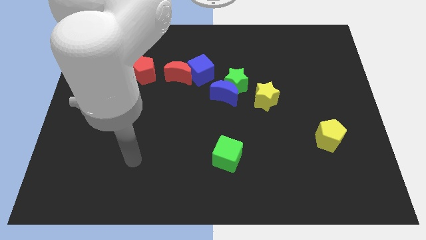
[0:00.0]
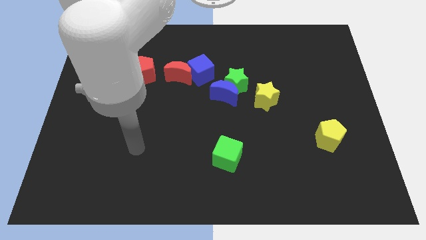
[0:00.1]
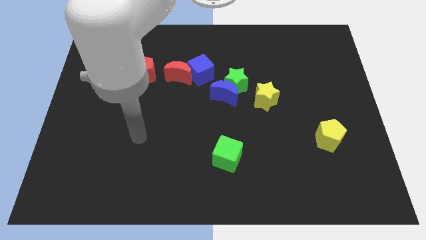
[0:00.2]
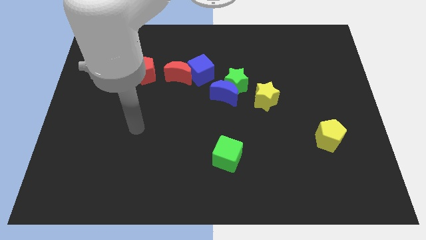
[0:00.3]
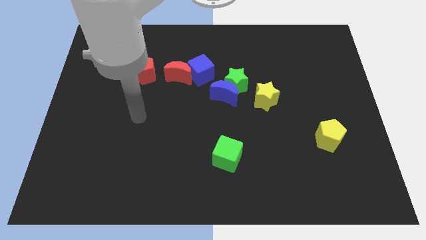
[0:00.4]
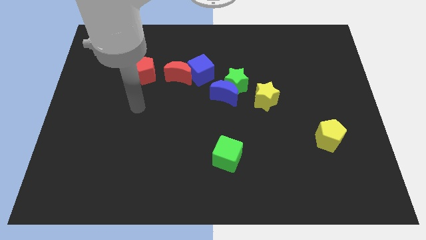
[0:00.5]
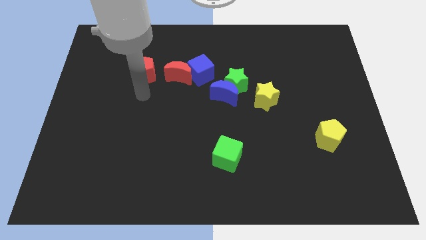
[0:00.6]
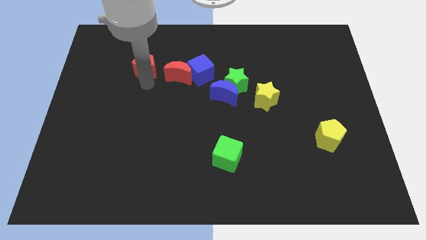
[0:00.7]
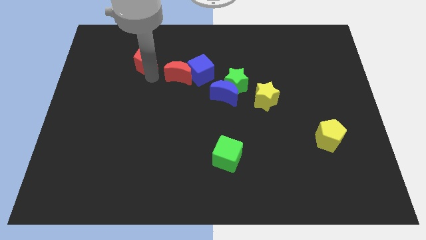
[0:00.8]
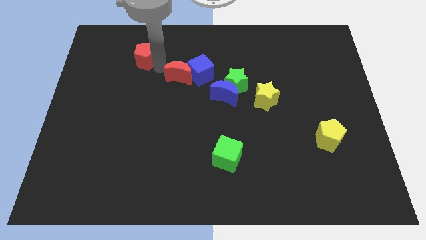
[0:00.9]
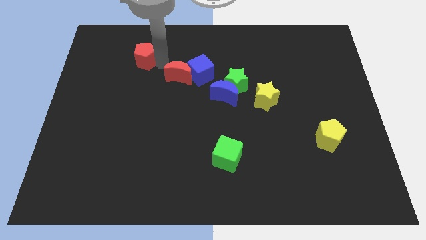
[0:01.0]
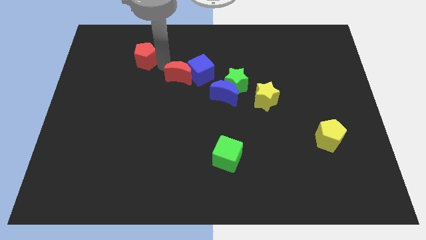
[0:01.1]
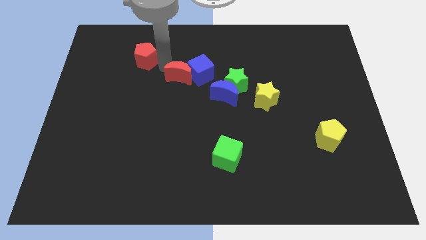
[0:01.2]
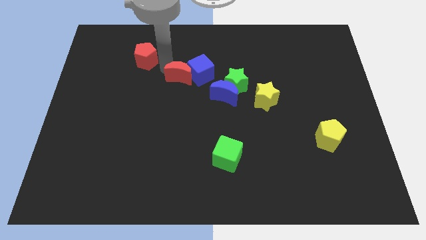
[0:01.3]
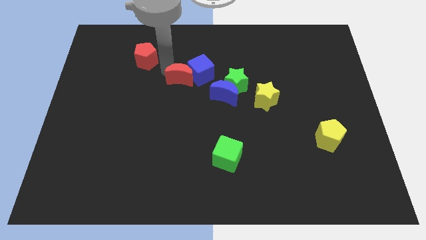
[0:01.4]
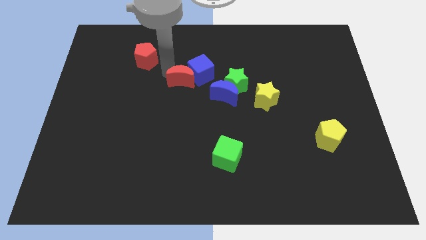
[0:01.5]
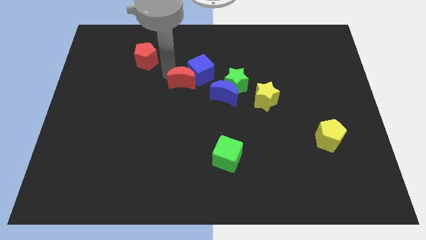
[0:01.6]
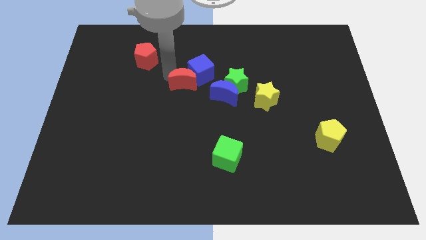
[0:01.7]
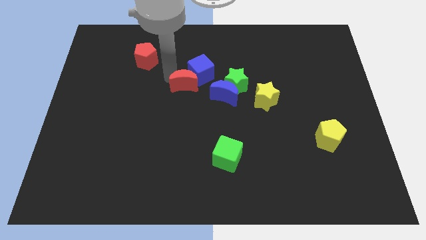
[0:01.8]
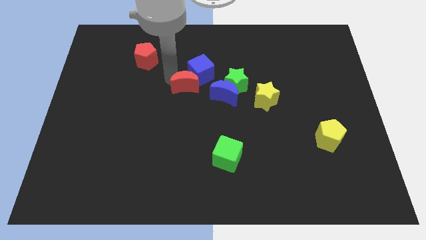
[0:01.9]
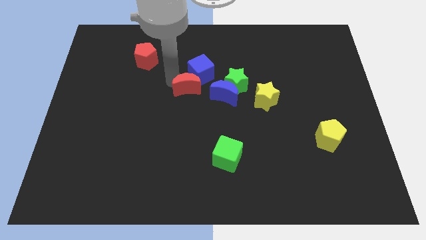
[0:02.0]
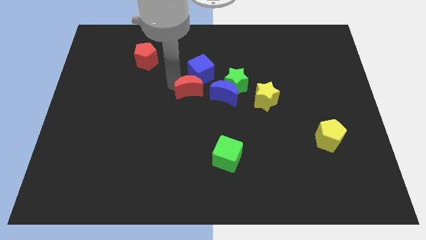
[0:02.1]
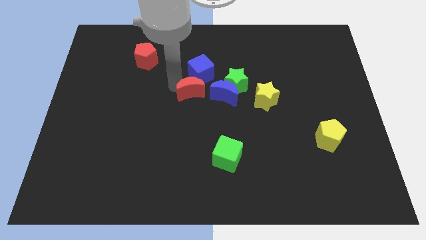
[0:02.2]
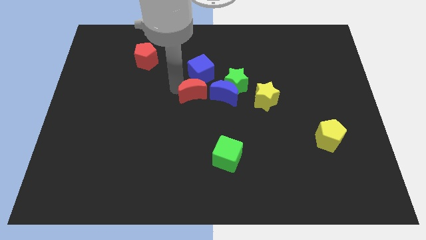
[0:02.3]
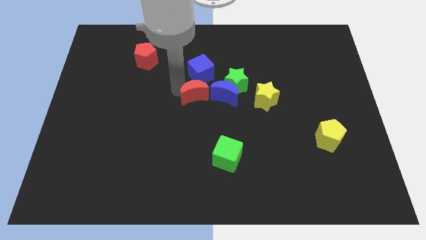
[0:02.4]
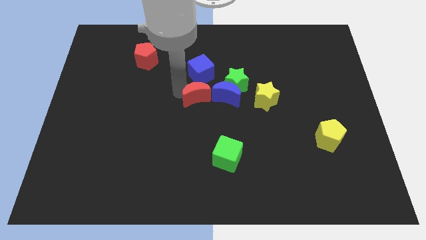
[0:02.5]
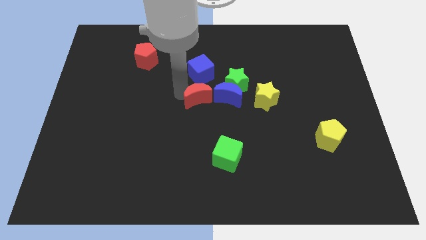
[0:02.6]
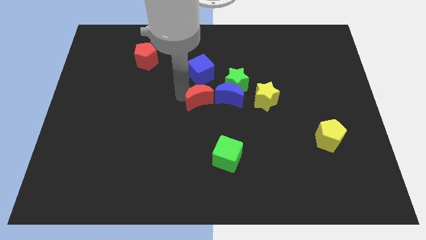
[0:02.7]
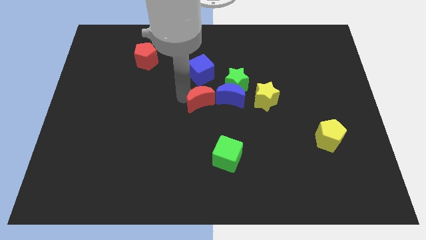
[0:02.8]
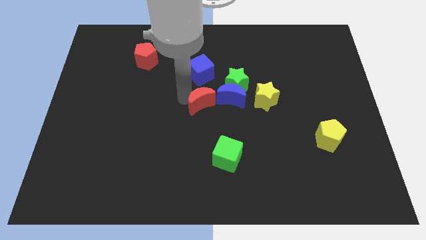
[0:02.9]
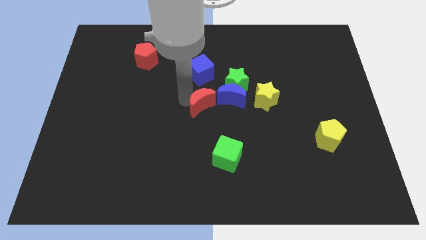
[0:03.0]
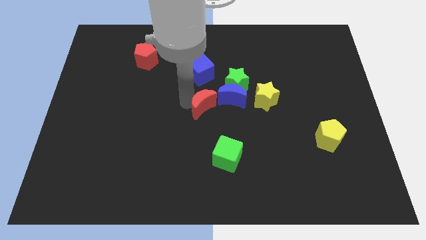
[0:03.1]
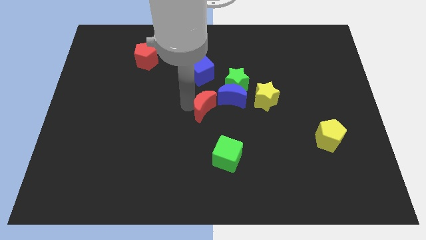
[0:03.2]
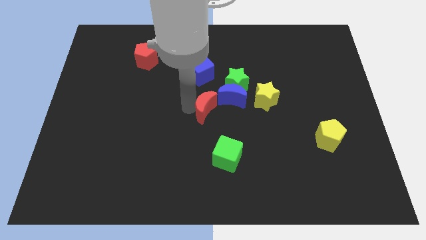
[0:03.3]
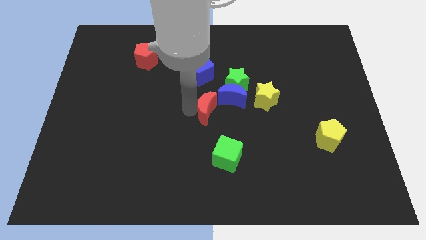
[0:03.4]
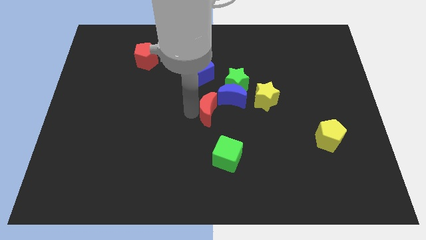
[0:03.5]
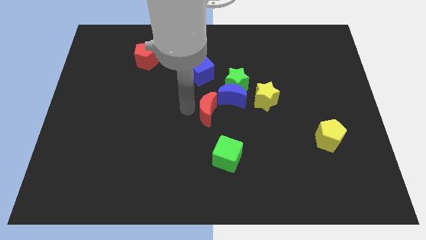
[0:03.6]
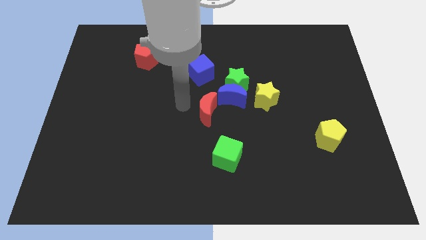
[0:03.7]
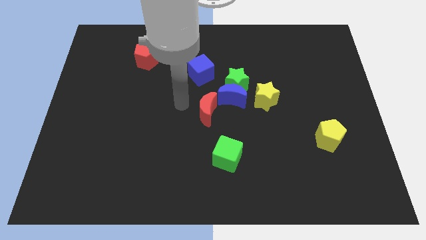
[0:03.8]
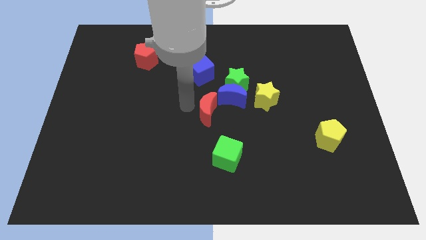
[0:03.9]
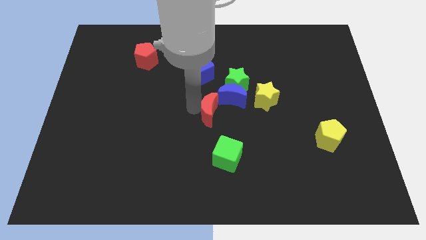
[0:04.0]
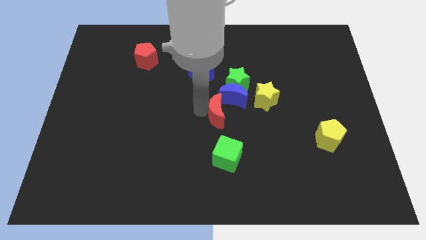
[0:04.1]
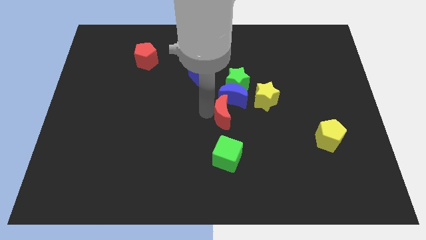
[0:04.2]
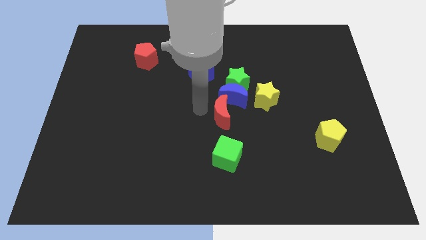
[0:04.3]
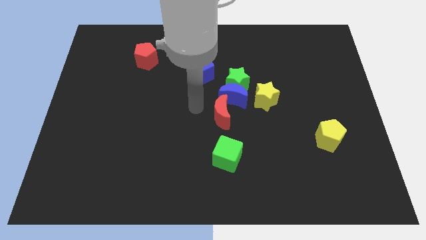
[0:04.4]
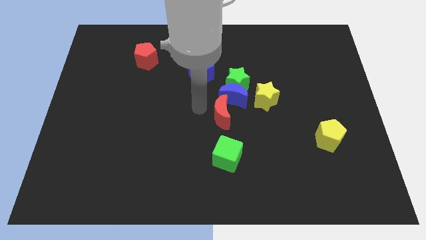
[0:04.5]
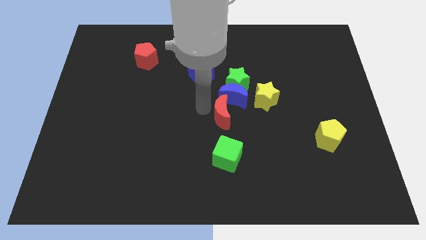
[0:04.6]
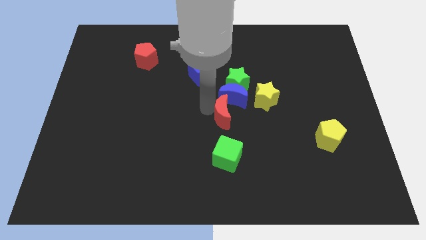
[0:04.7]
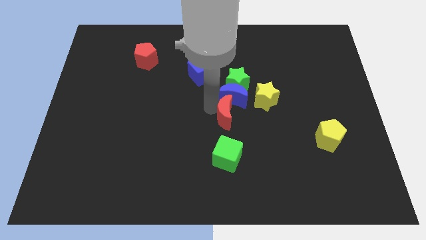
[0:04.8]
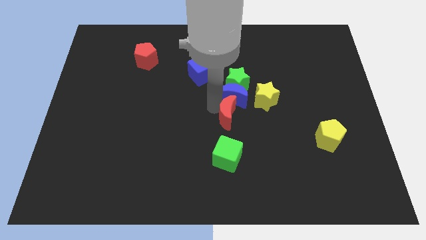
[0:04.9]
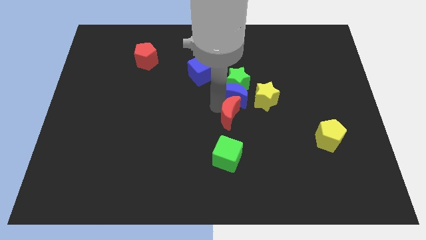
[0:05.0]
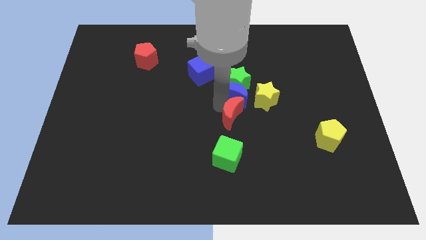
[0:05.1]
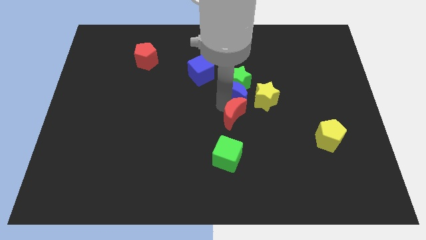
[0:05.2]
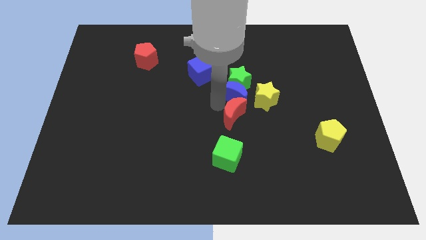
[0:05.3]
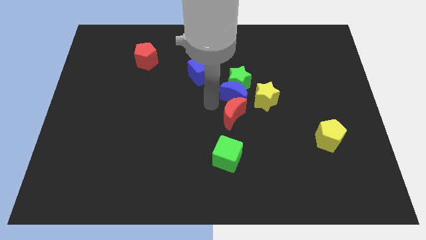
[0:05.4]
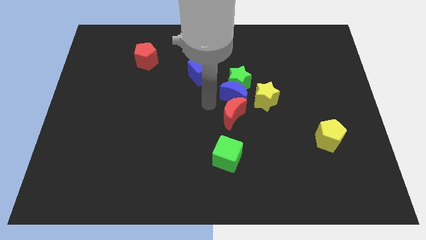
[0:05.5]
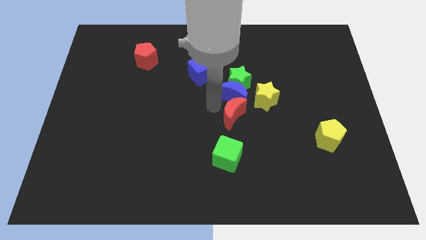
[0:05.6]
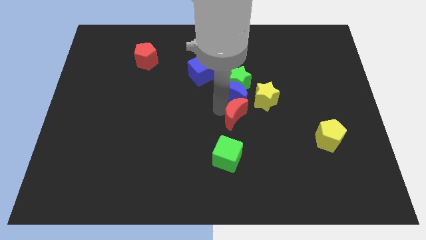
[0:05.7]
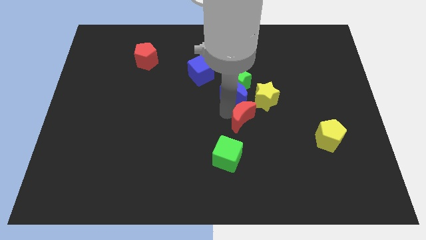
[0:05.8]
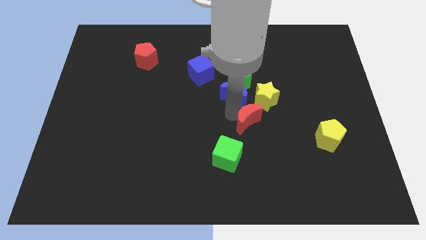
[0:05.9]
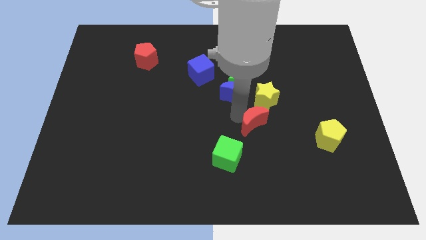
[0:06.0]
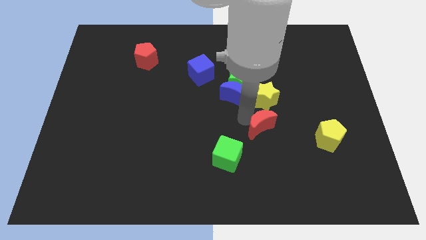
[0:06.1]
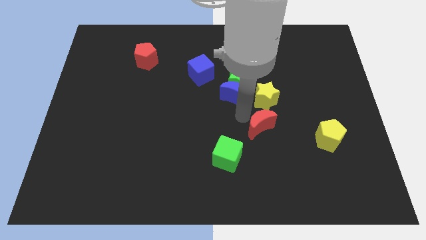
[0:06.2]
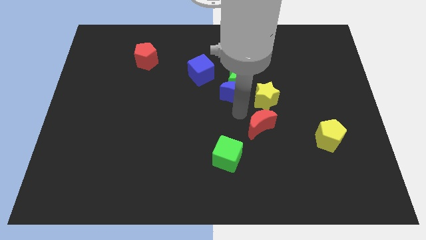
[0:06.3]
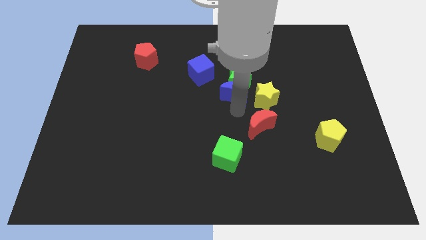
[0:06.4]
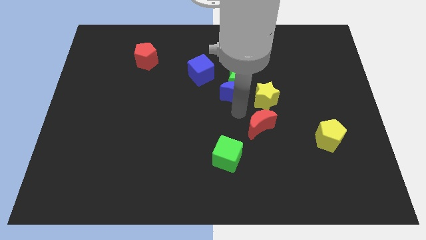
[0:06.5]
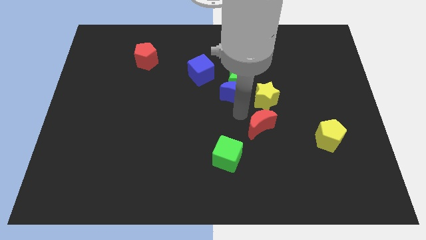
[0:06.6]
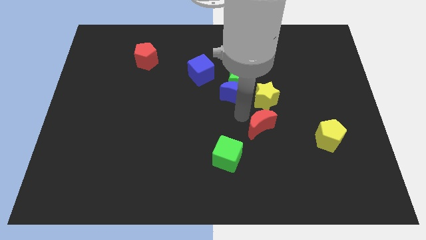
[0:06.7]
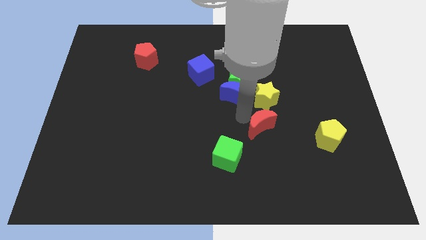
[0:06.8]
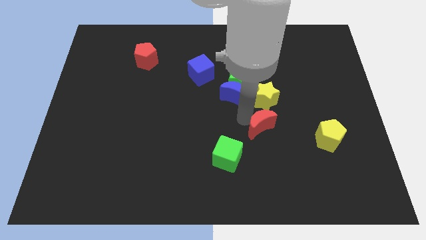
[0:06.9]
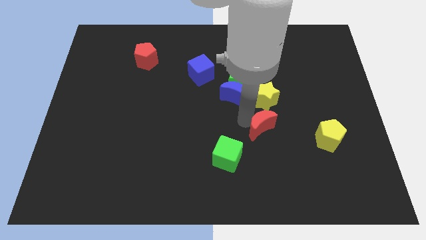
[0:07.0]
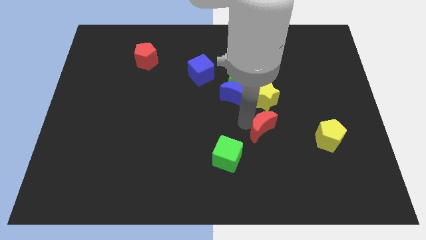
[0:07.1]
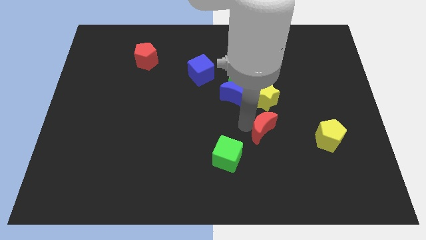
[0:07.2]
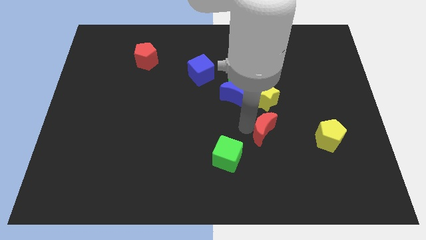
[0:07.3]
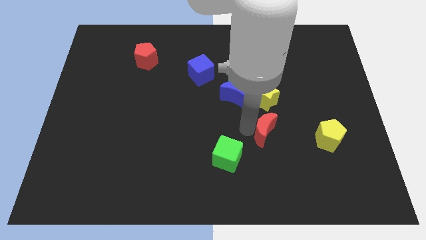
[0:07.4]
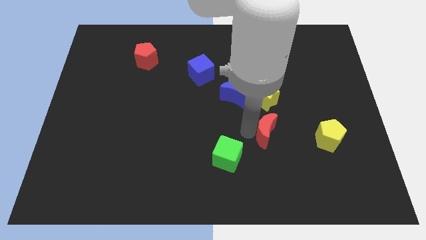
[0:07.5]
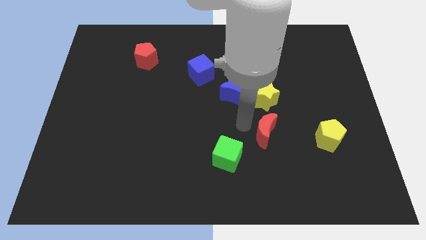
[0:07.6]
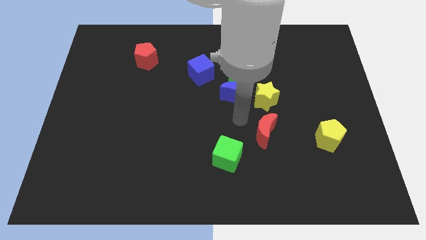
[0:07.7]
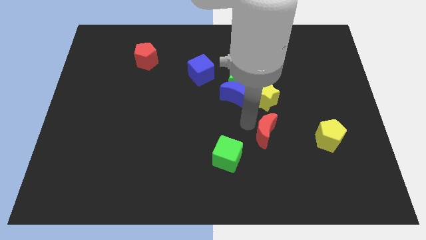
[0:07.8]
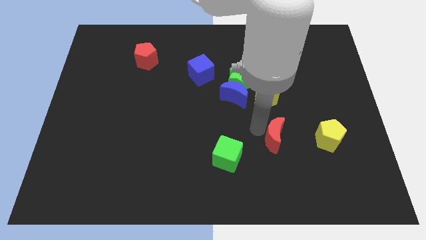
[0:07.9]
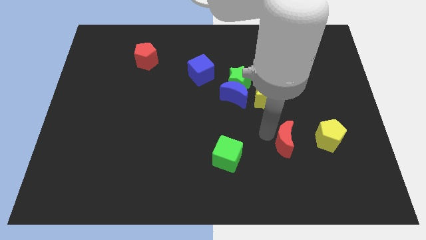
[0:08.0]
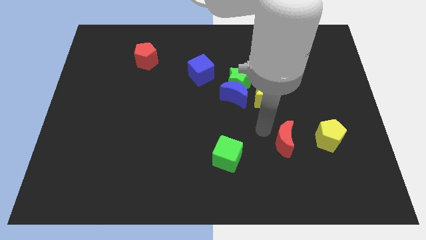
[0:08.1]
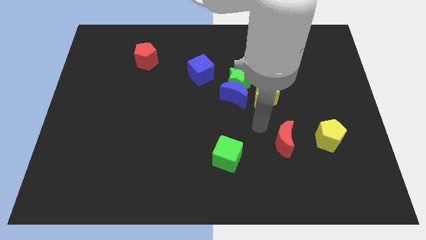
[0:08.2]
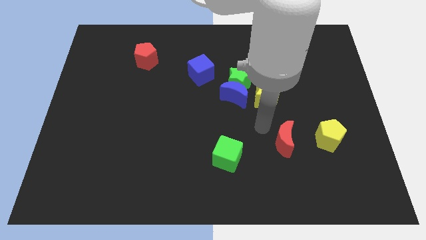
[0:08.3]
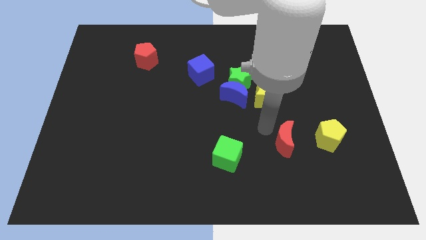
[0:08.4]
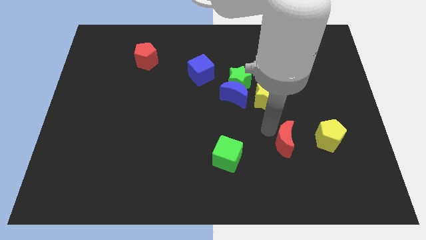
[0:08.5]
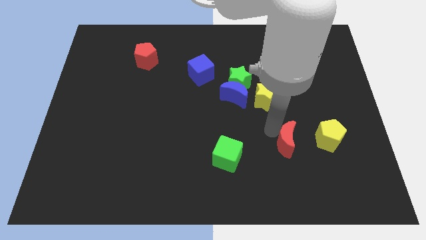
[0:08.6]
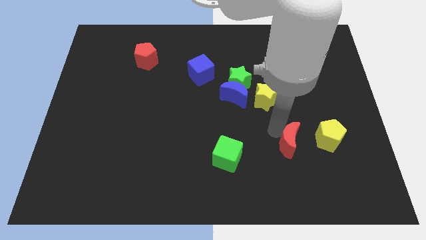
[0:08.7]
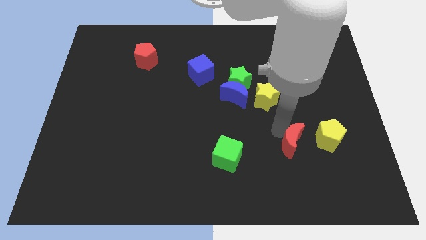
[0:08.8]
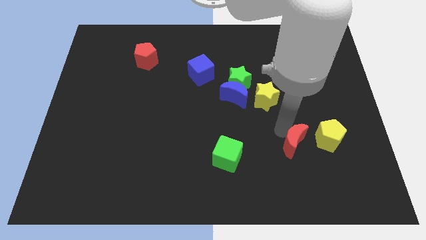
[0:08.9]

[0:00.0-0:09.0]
put the red moon to the bottom left of the yellow pentagon
